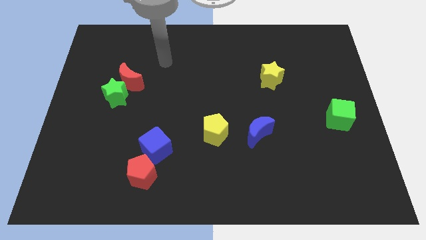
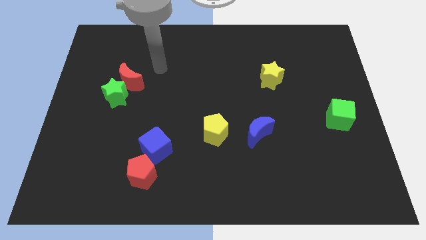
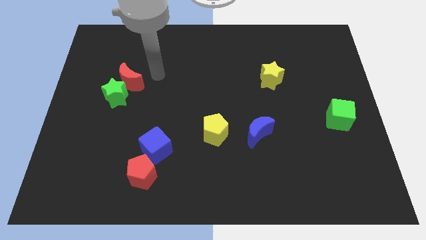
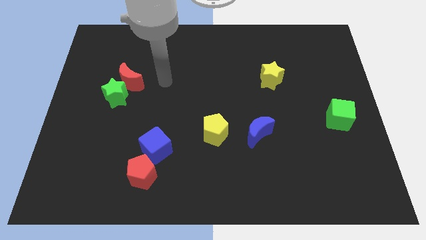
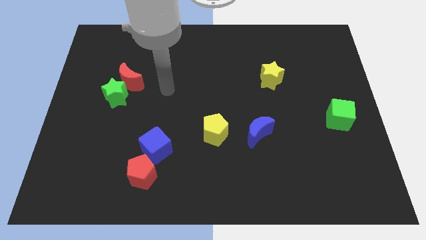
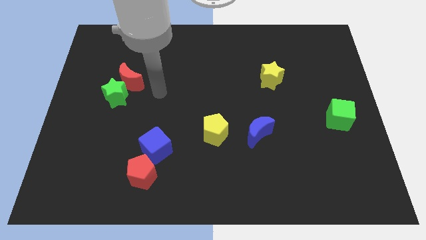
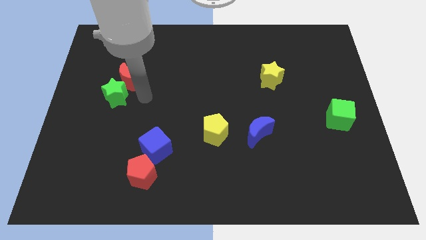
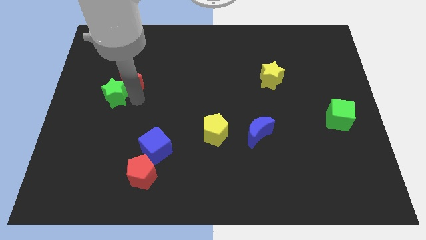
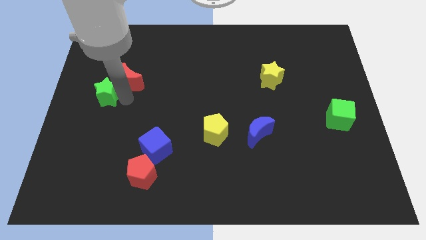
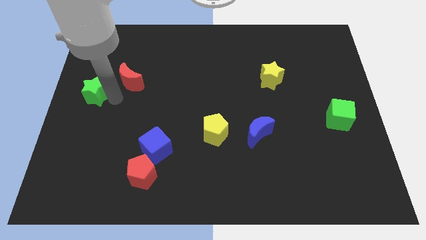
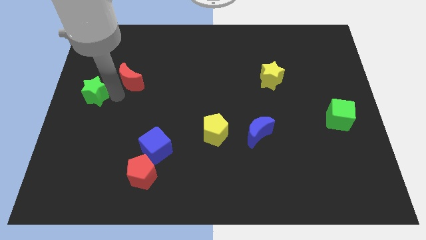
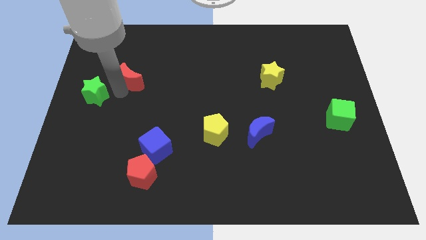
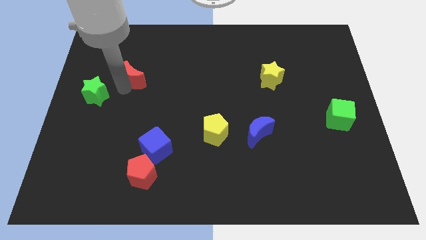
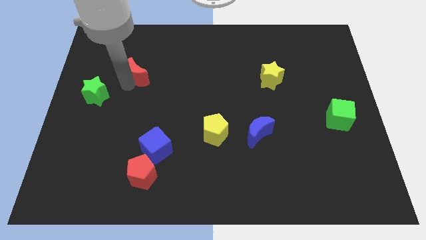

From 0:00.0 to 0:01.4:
move the red moon away from the green star

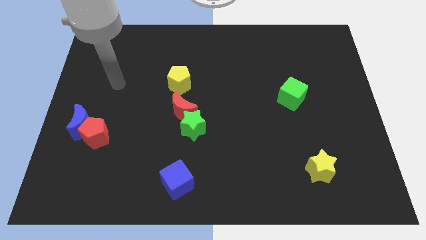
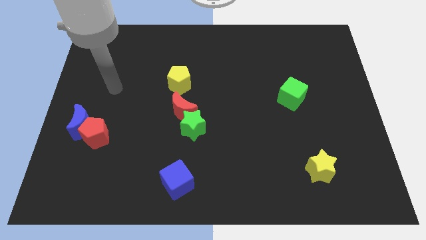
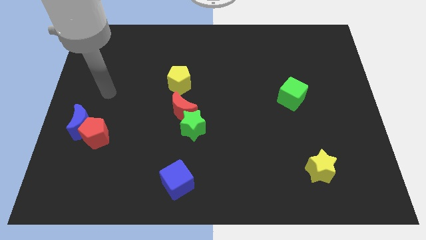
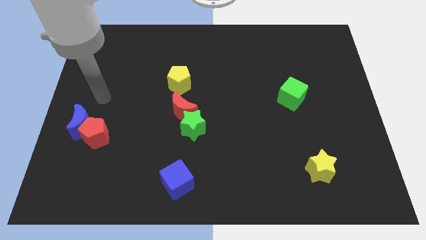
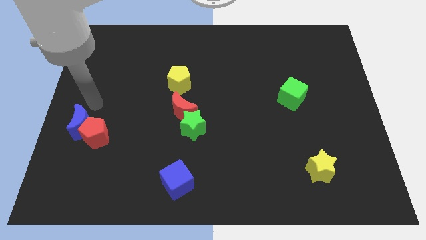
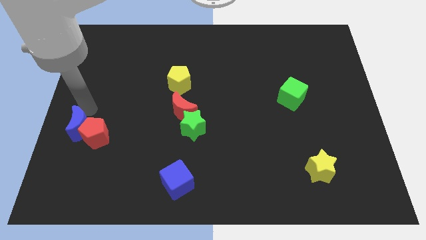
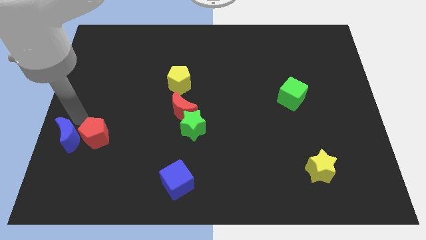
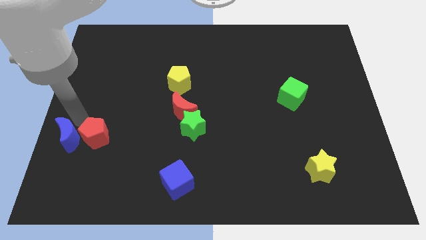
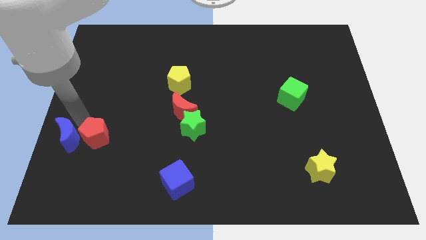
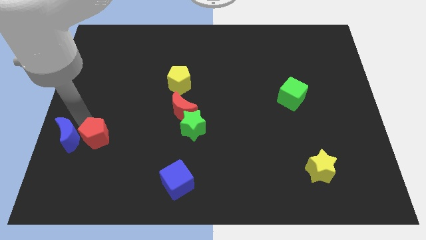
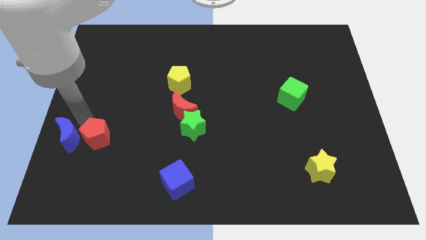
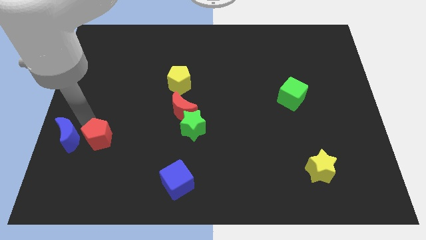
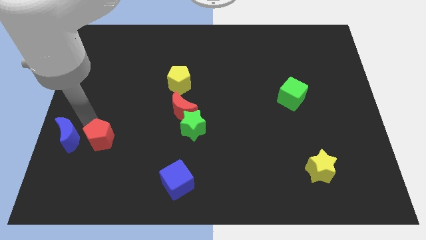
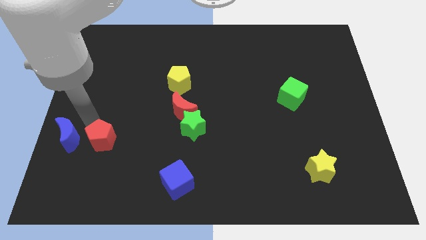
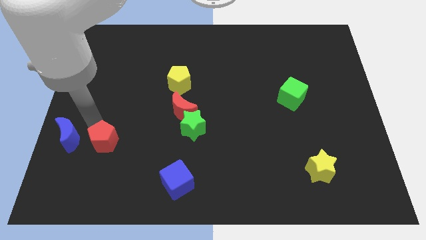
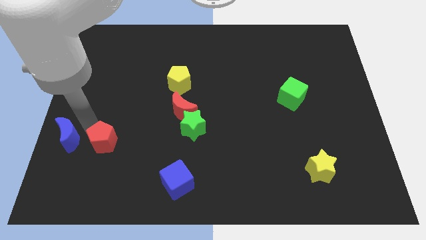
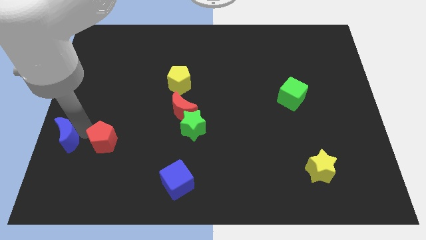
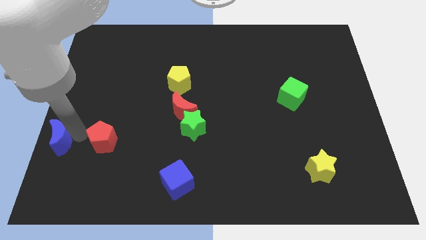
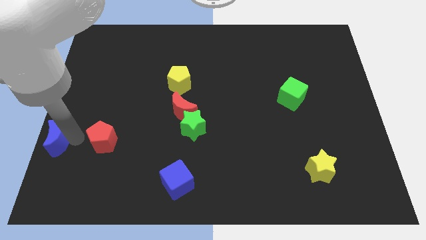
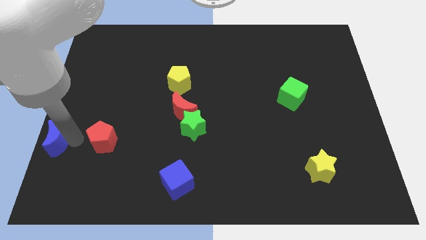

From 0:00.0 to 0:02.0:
move the red pentagon away from the blue moon

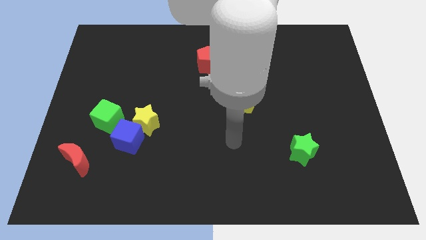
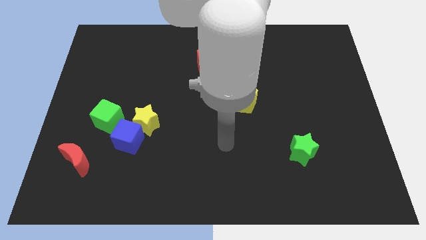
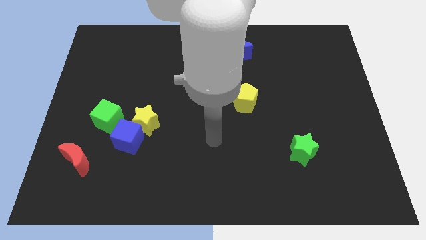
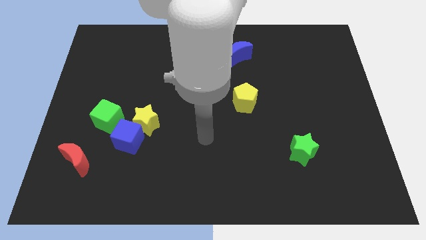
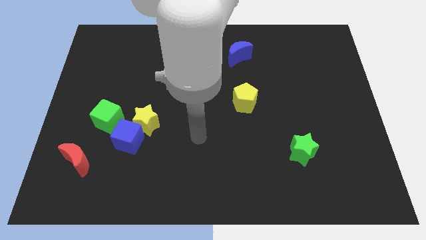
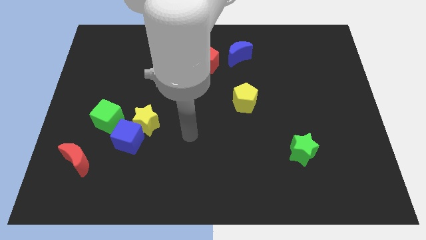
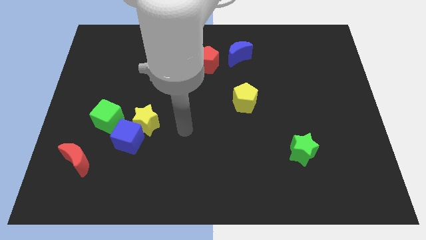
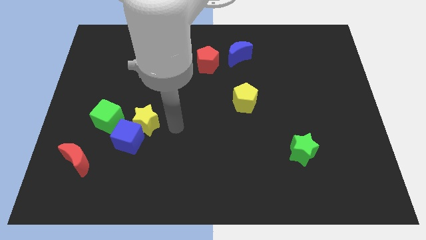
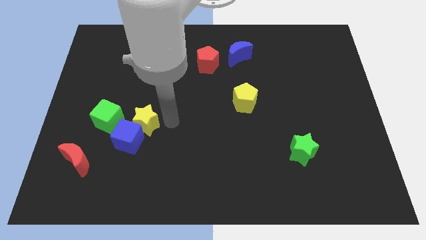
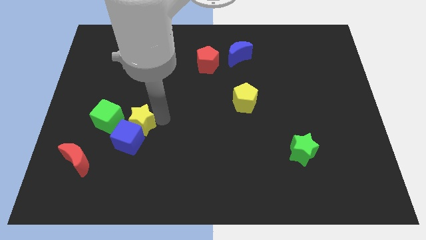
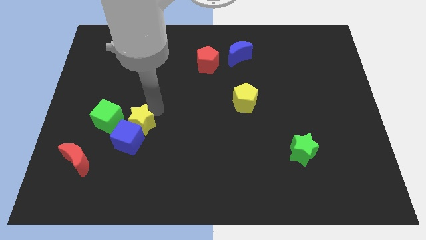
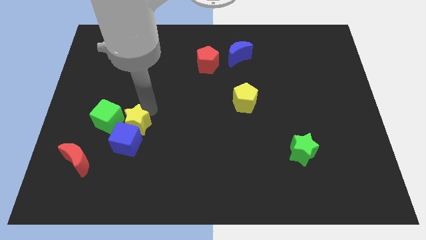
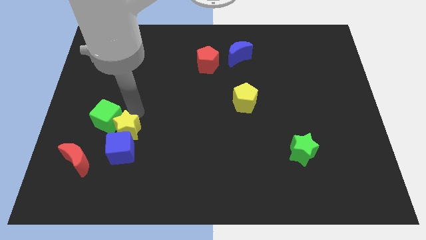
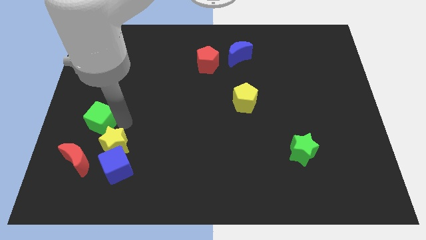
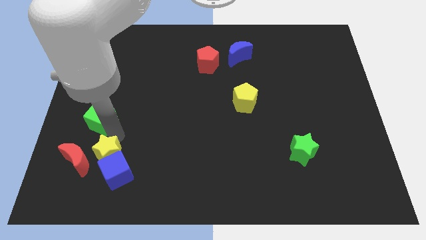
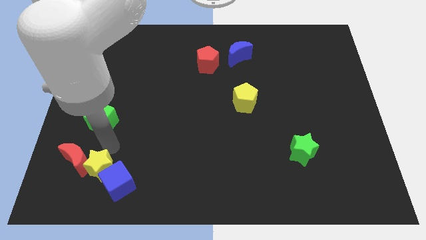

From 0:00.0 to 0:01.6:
separate the blue cube from the yellow star and green cube

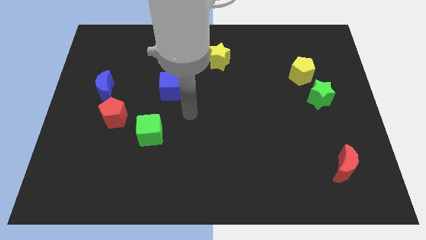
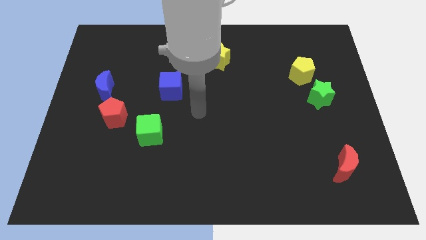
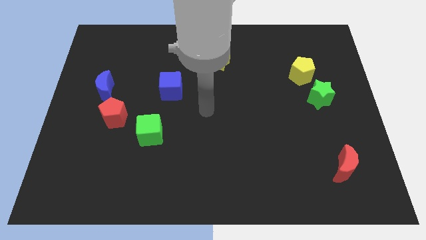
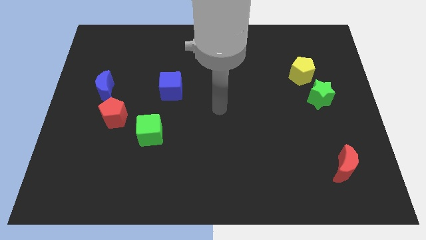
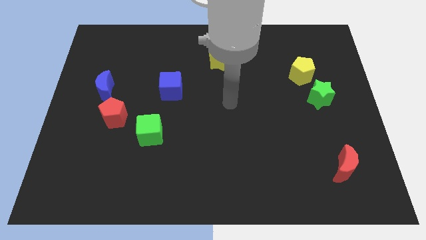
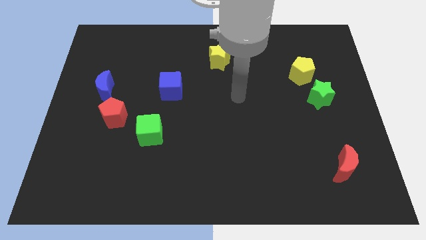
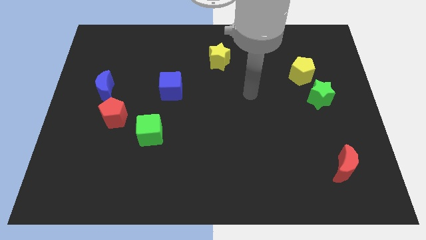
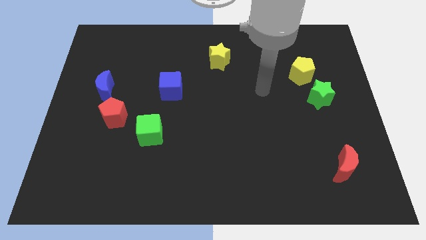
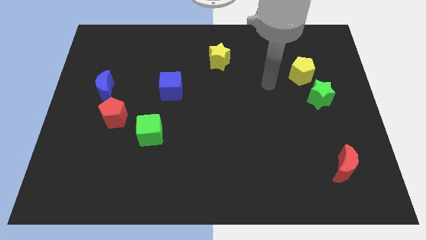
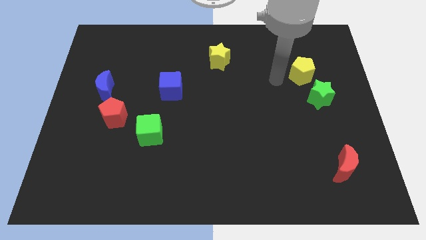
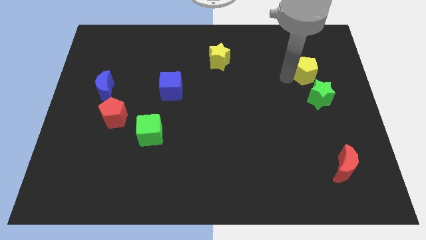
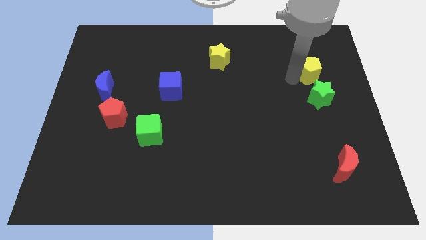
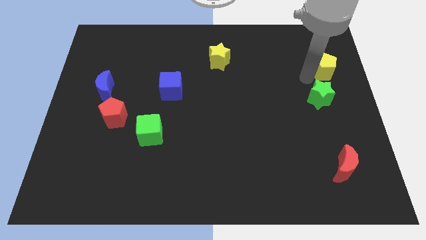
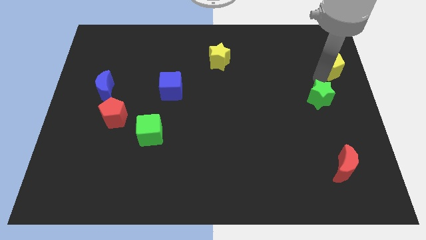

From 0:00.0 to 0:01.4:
pull the green star apart from the yellow pentagon

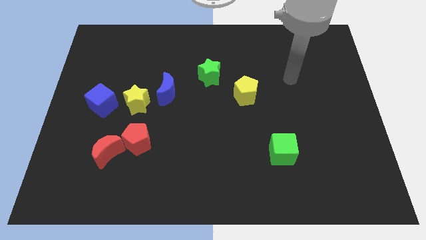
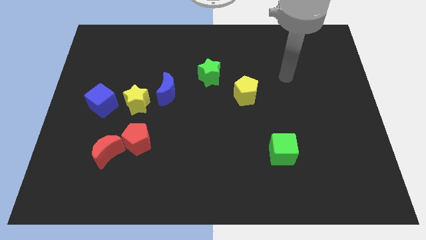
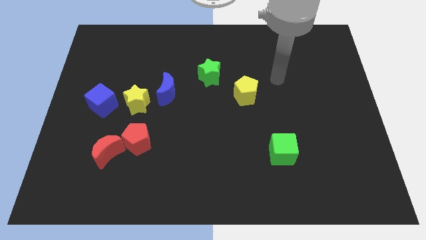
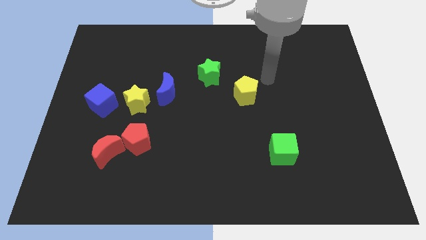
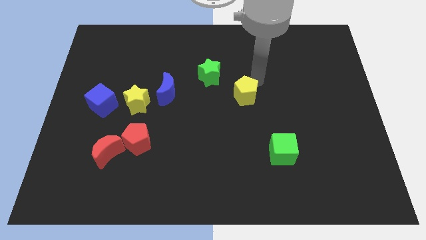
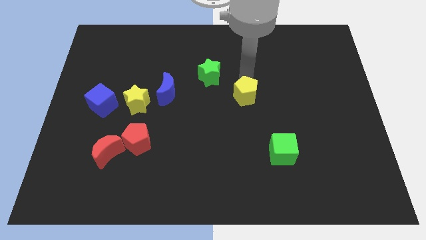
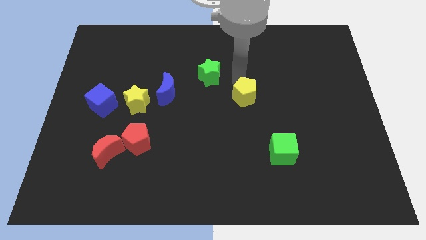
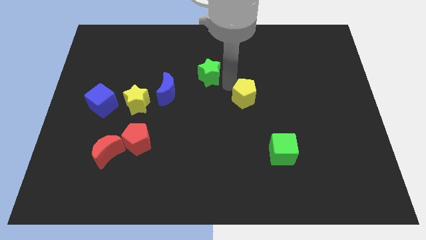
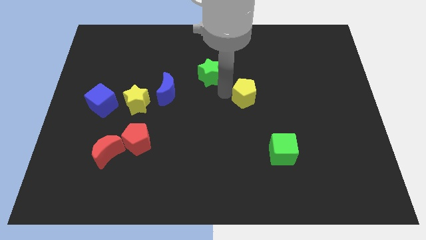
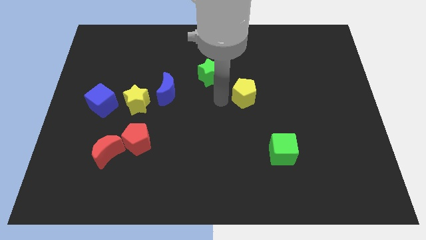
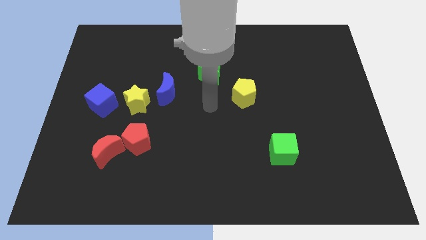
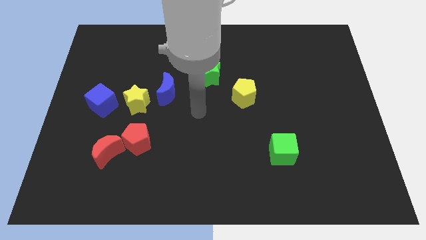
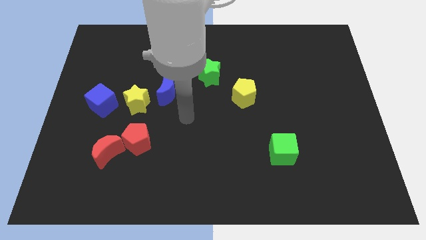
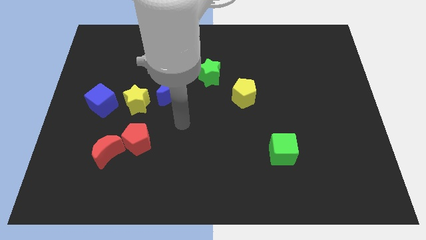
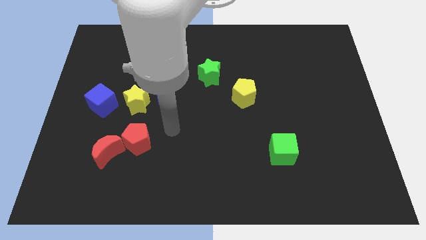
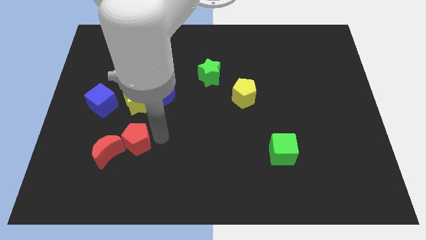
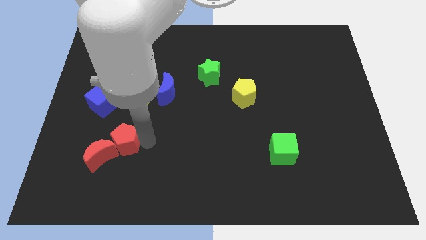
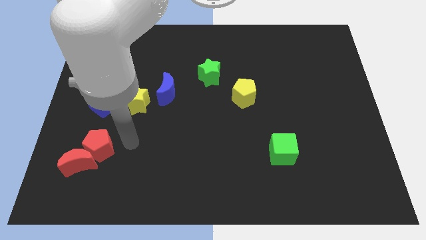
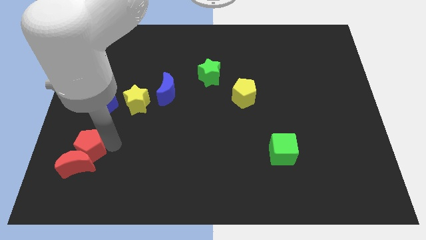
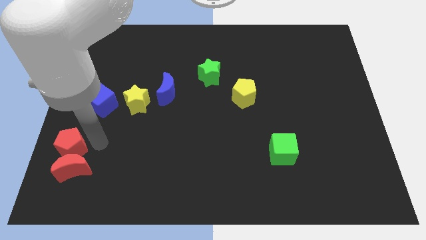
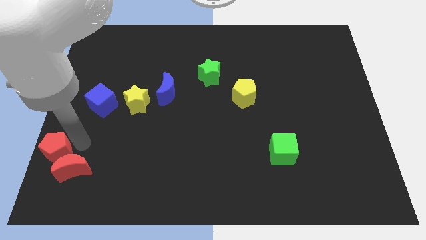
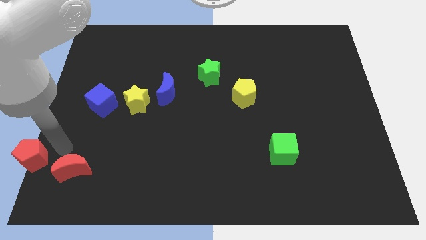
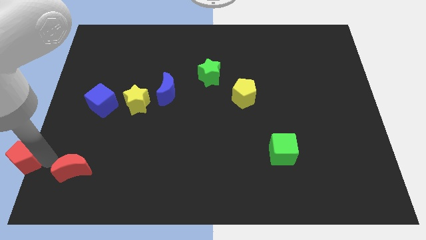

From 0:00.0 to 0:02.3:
pull the red moon apart from the red pentagon

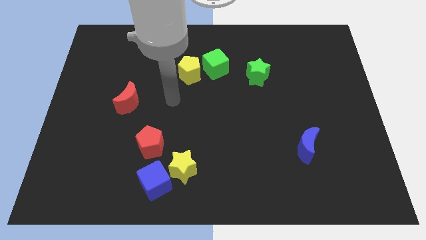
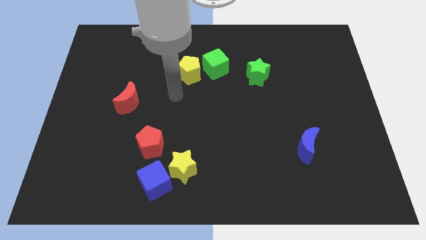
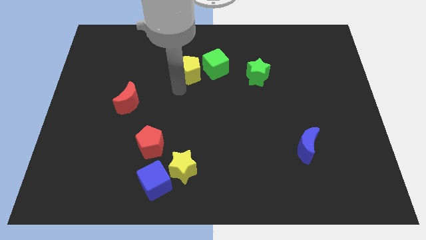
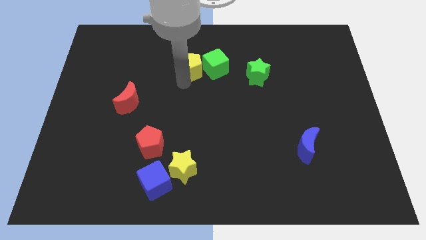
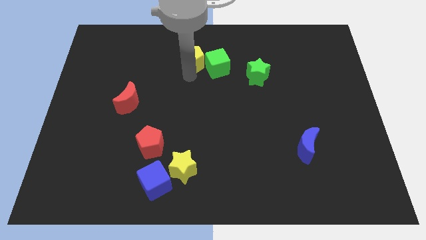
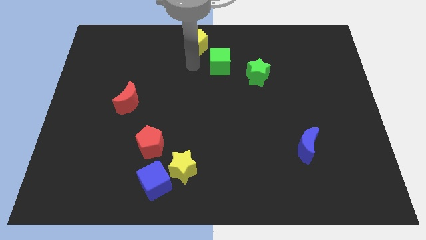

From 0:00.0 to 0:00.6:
move the green cube away from the yellow pentagon
